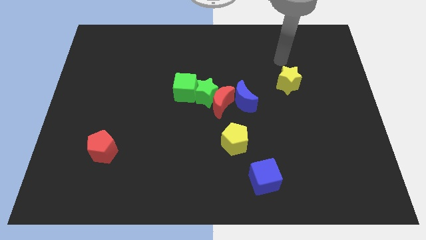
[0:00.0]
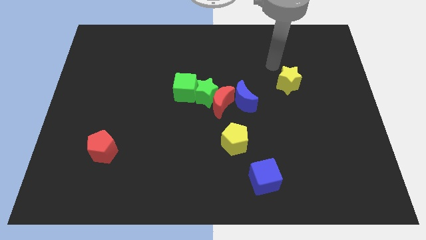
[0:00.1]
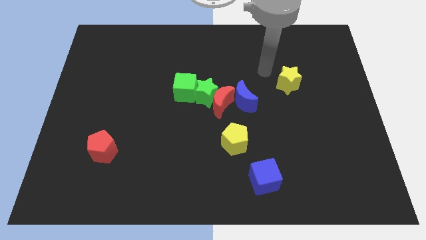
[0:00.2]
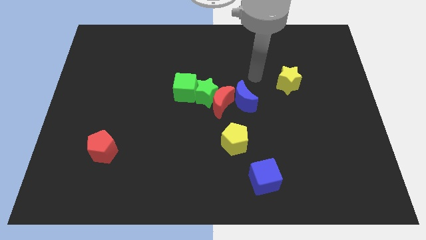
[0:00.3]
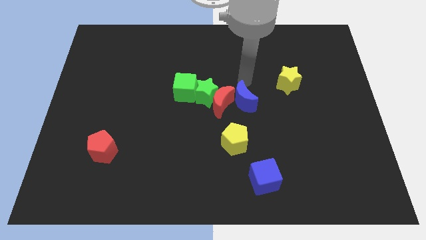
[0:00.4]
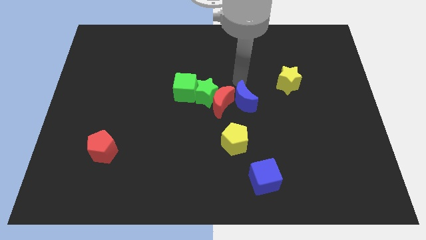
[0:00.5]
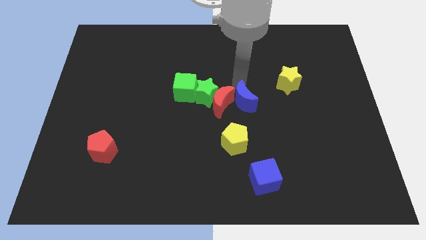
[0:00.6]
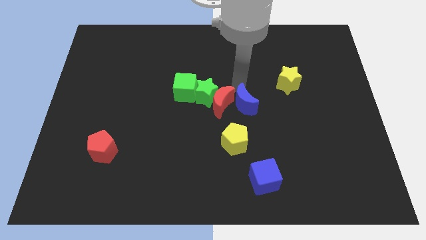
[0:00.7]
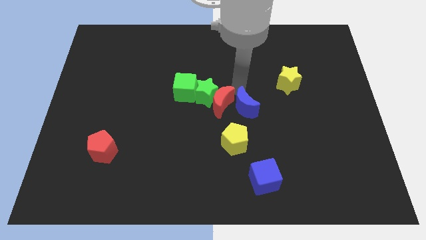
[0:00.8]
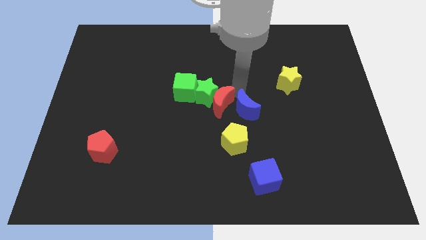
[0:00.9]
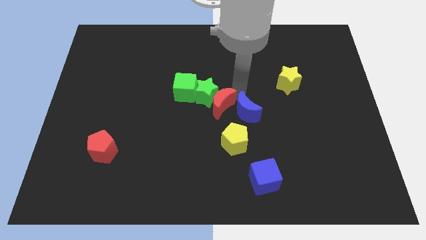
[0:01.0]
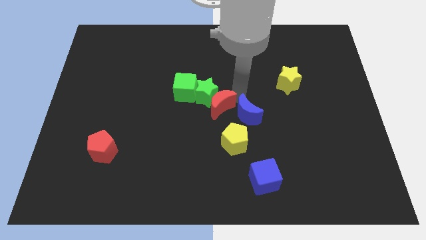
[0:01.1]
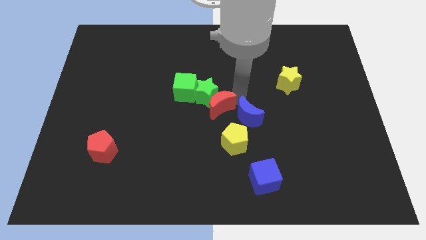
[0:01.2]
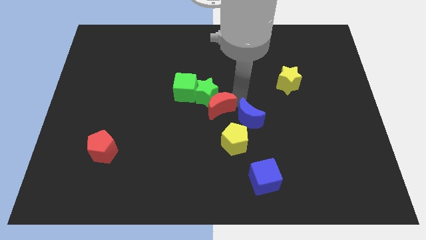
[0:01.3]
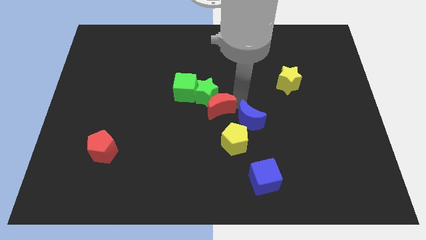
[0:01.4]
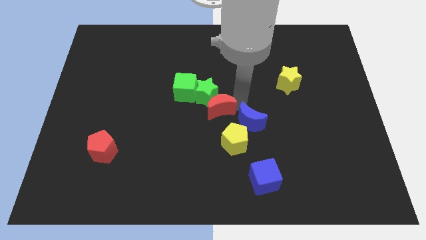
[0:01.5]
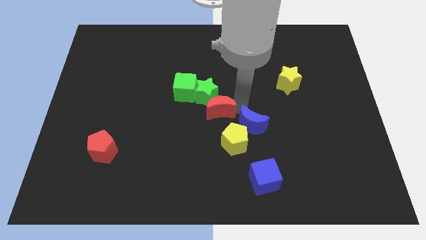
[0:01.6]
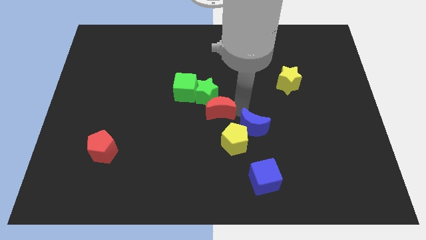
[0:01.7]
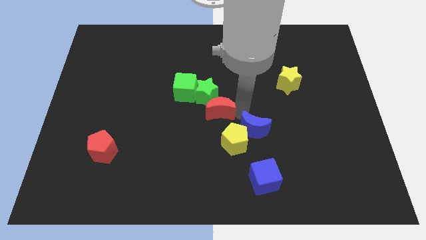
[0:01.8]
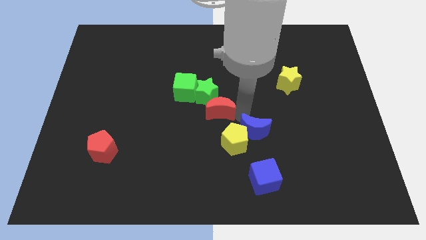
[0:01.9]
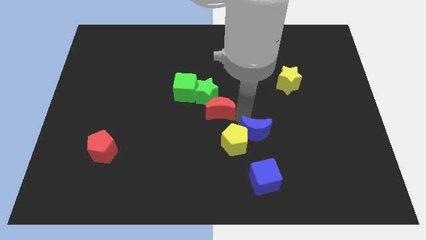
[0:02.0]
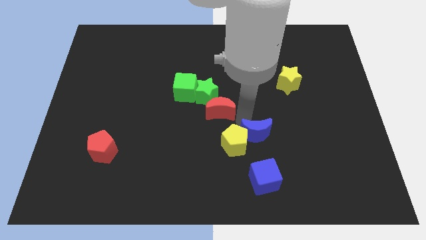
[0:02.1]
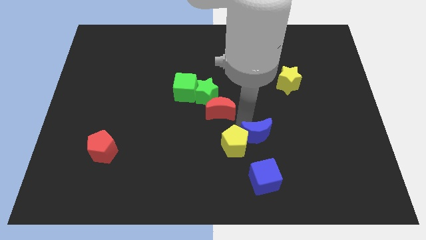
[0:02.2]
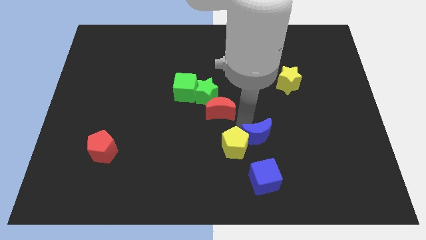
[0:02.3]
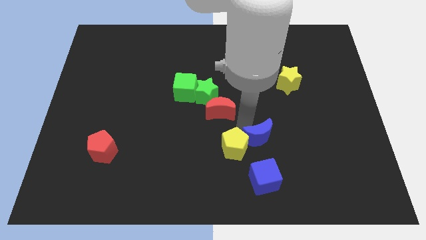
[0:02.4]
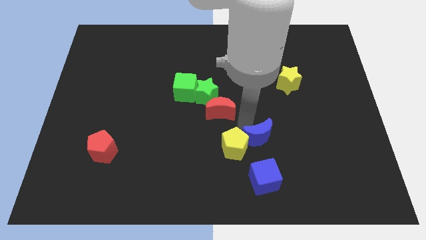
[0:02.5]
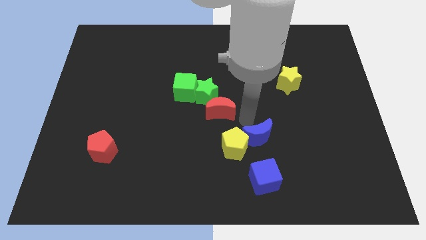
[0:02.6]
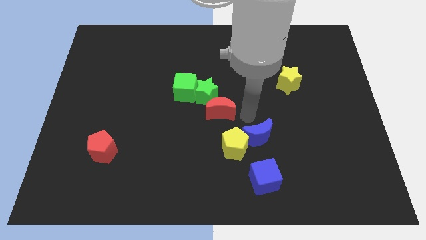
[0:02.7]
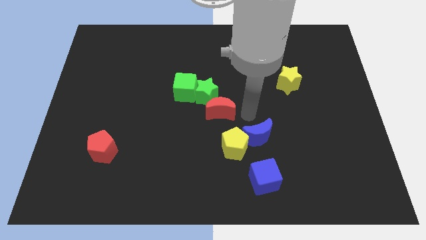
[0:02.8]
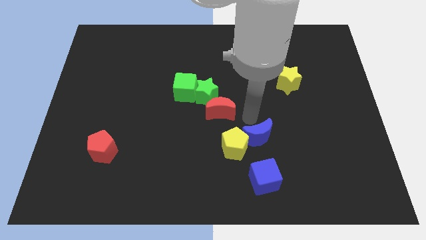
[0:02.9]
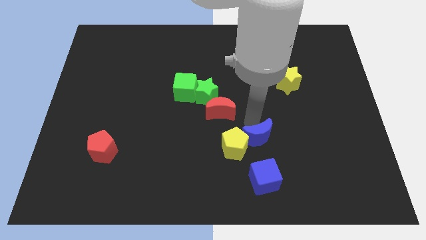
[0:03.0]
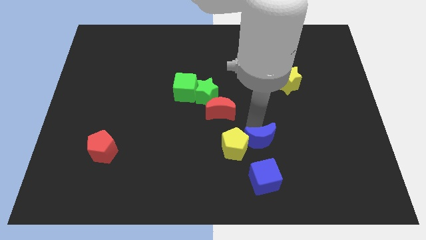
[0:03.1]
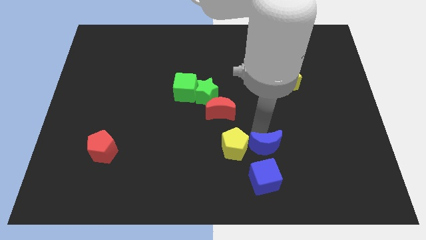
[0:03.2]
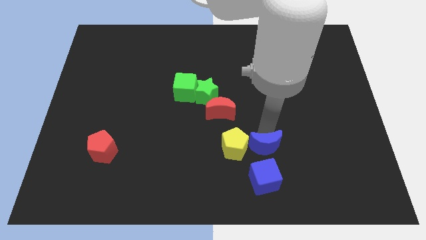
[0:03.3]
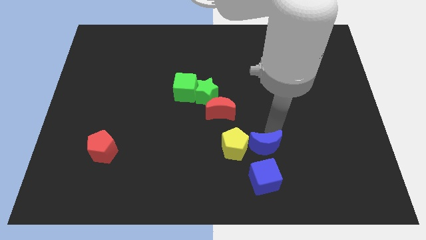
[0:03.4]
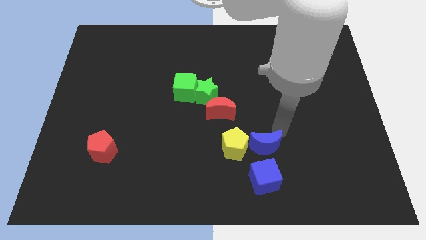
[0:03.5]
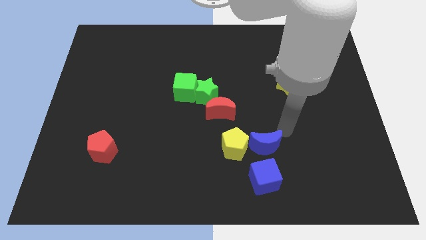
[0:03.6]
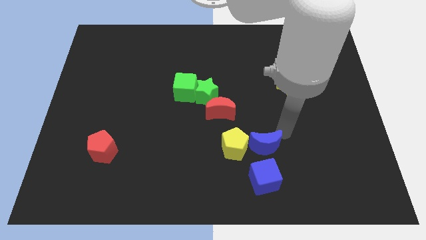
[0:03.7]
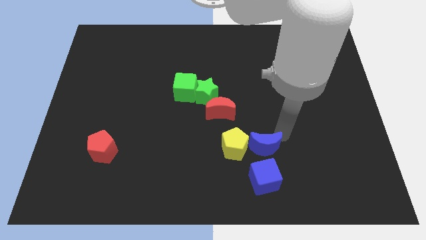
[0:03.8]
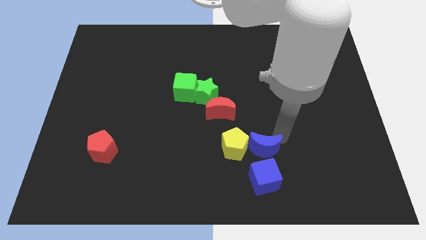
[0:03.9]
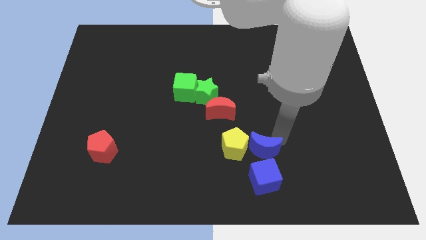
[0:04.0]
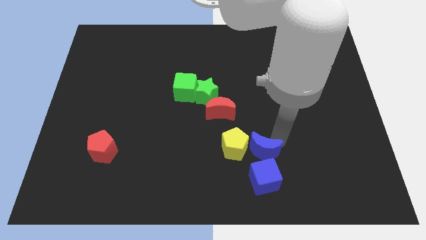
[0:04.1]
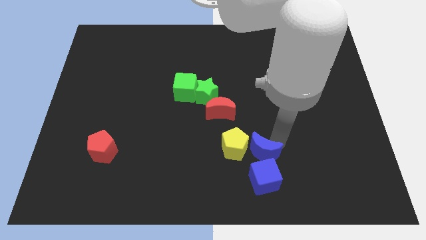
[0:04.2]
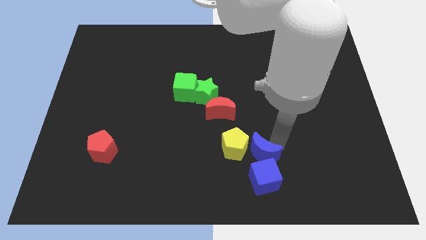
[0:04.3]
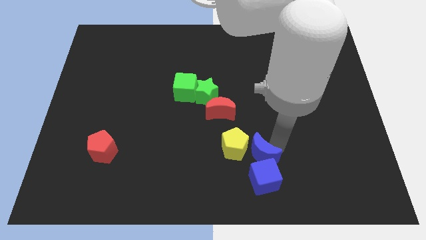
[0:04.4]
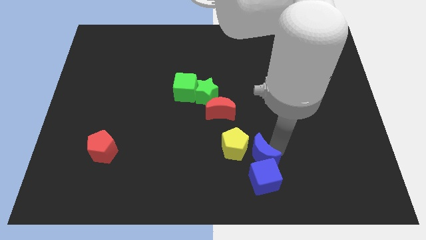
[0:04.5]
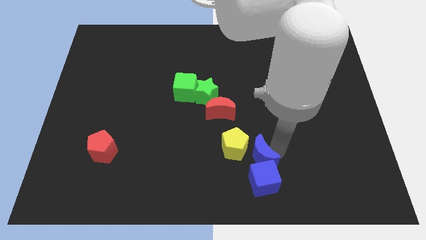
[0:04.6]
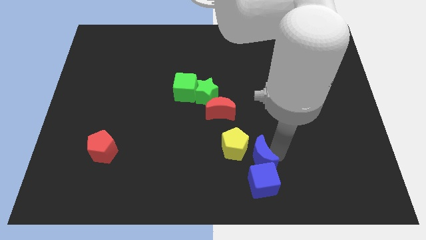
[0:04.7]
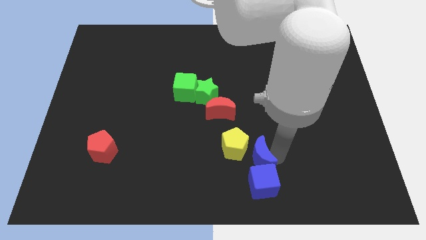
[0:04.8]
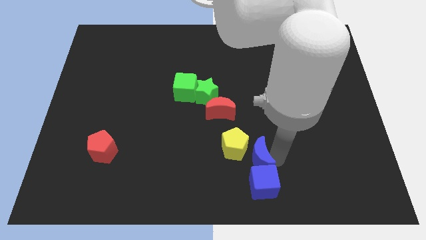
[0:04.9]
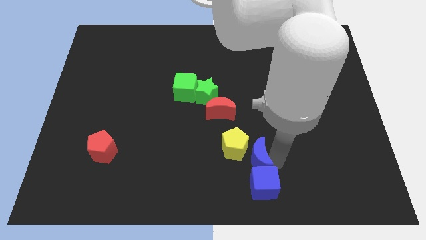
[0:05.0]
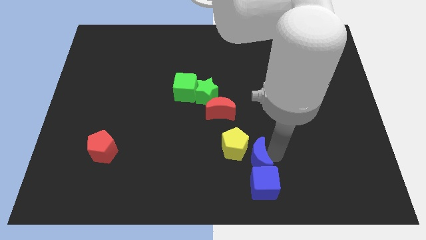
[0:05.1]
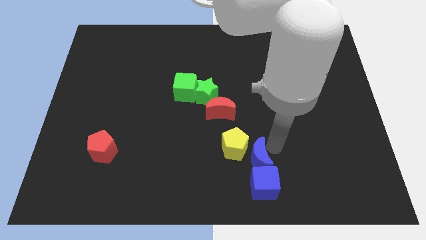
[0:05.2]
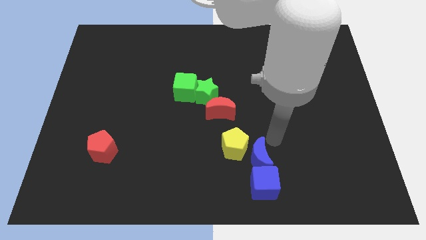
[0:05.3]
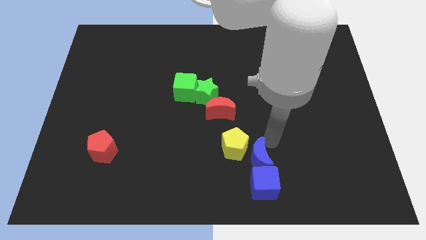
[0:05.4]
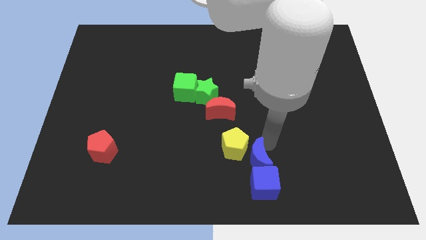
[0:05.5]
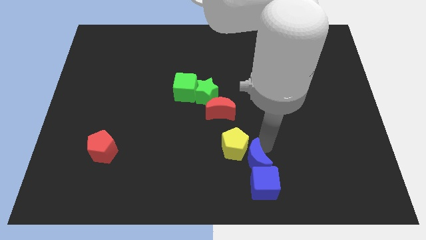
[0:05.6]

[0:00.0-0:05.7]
push the blue moon to the bottom side of the yellow pentagon

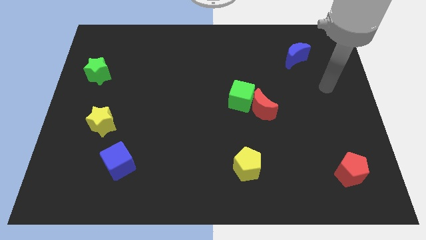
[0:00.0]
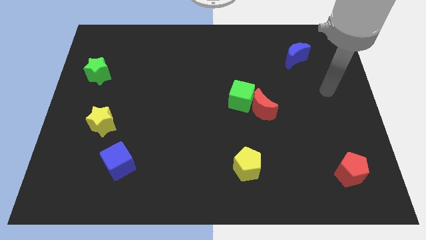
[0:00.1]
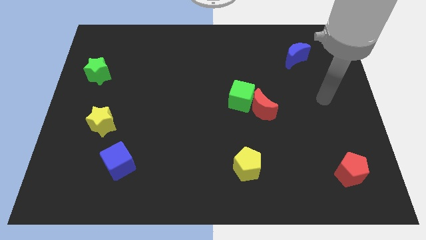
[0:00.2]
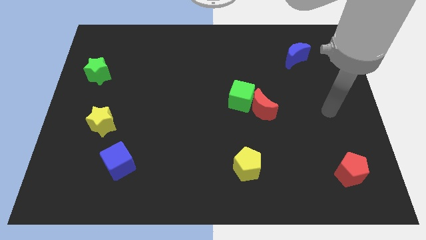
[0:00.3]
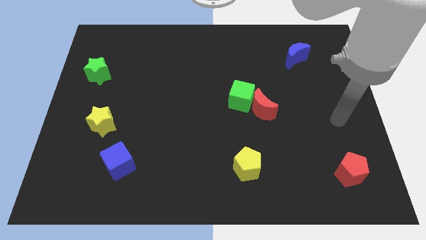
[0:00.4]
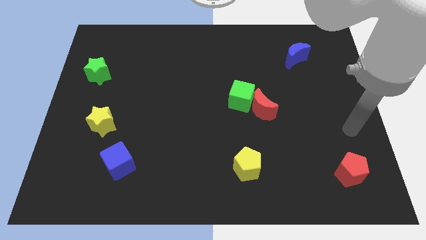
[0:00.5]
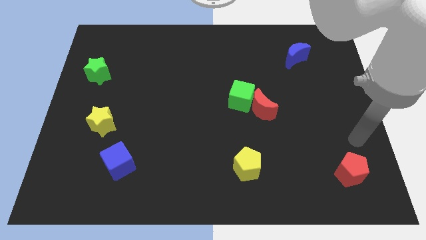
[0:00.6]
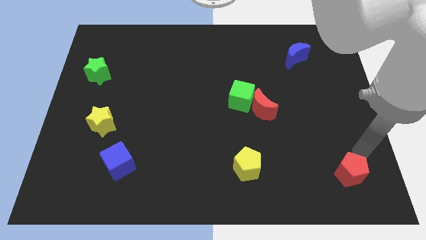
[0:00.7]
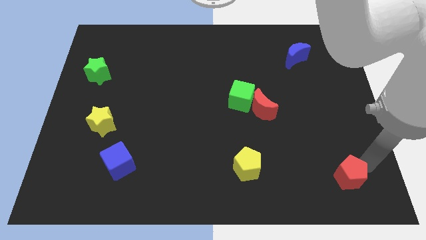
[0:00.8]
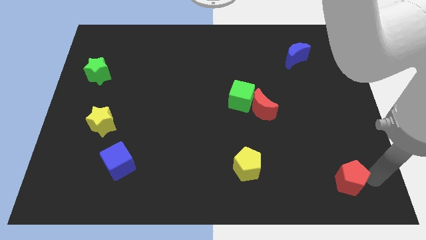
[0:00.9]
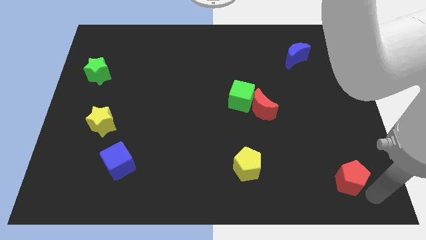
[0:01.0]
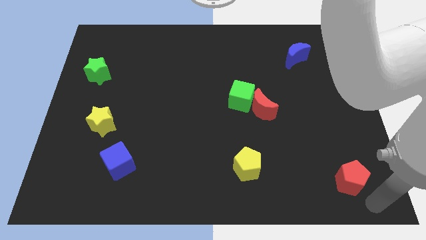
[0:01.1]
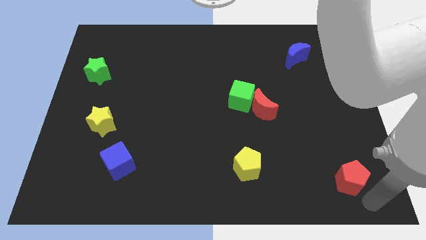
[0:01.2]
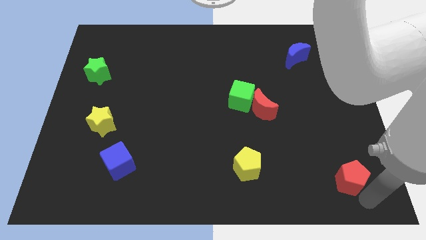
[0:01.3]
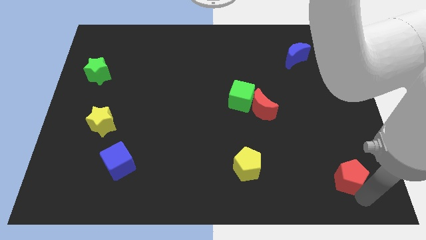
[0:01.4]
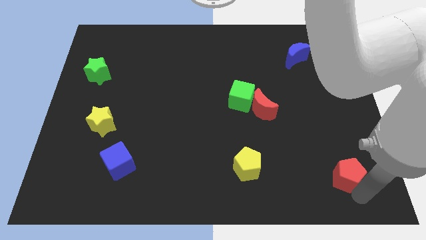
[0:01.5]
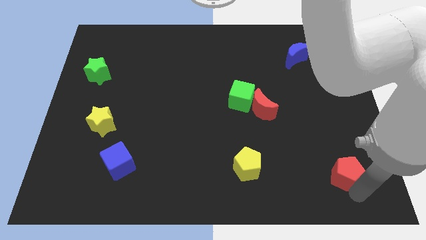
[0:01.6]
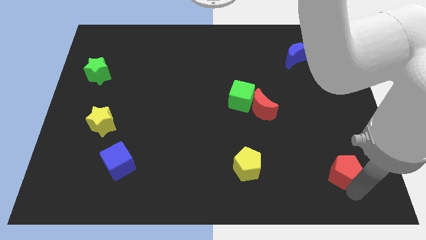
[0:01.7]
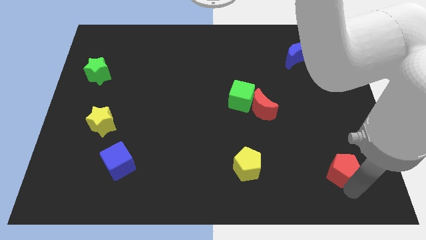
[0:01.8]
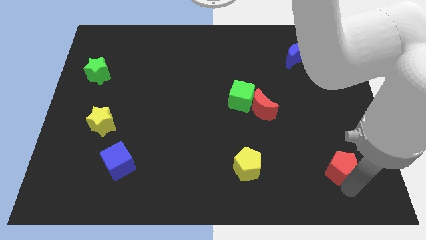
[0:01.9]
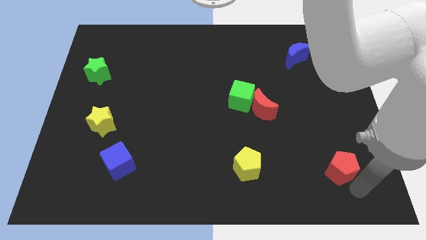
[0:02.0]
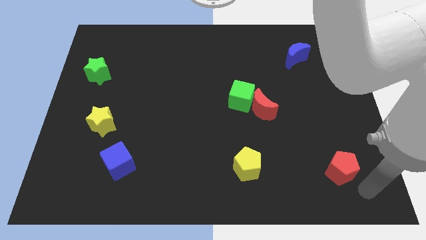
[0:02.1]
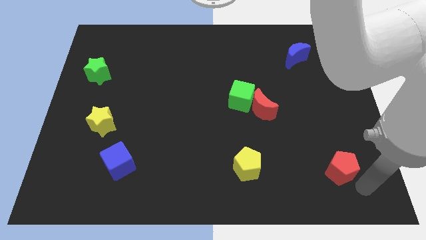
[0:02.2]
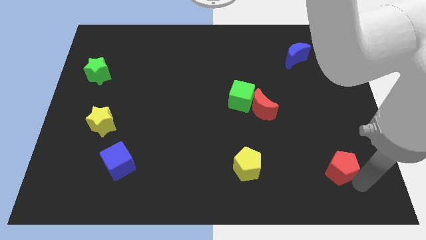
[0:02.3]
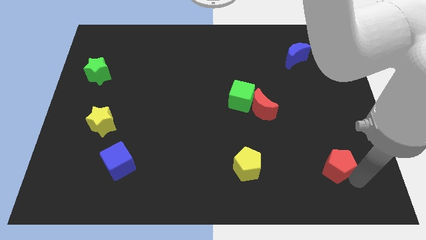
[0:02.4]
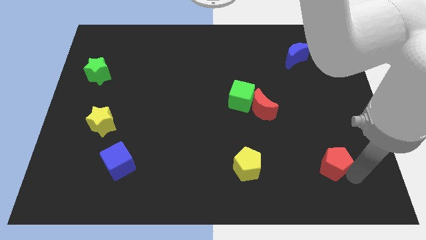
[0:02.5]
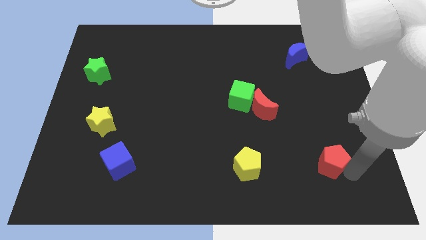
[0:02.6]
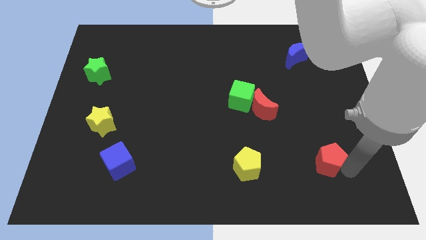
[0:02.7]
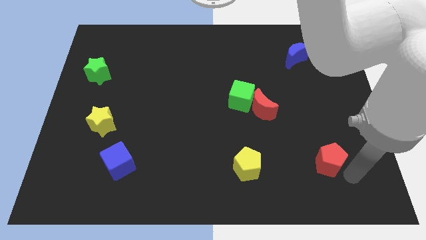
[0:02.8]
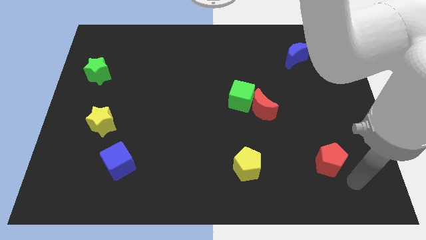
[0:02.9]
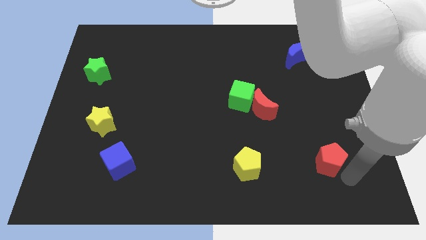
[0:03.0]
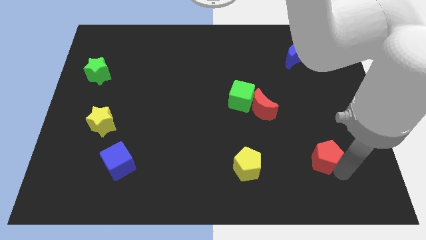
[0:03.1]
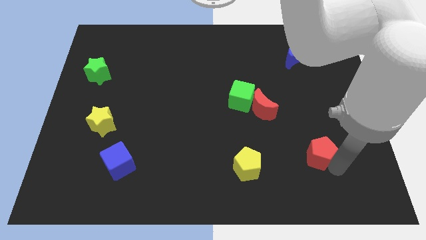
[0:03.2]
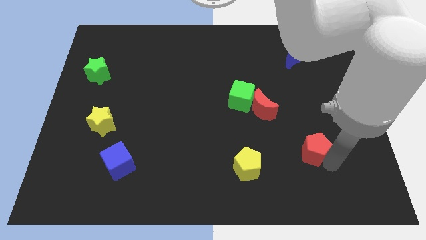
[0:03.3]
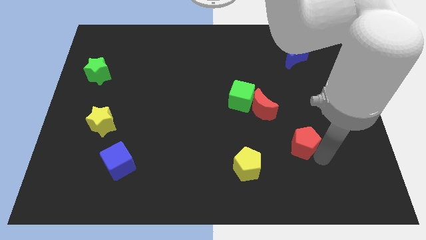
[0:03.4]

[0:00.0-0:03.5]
slide the red pentagon diagonally down and to the right of the red moon
